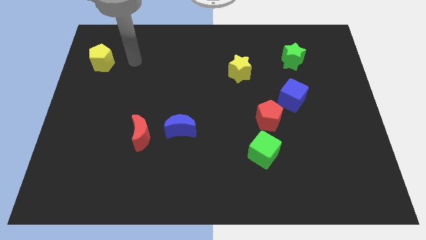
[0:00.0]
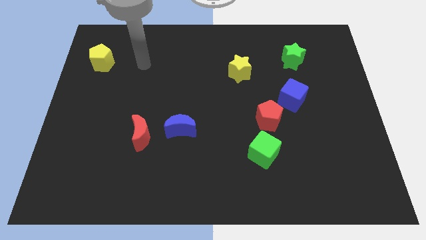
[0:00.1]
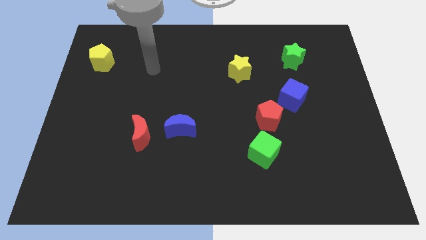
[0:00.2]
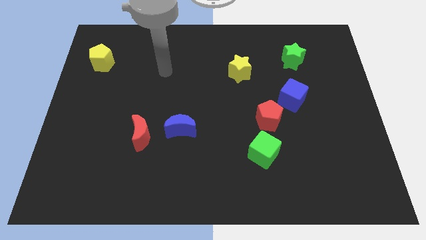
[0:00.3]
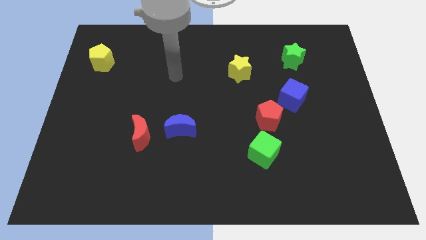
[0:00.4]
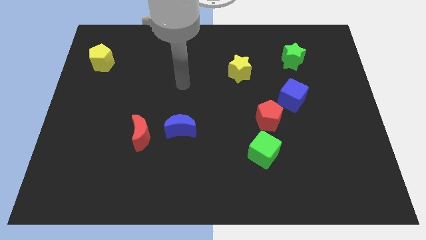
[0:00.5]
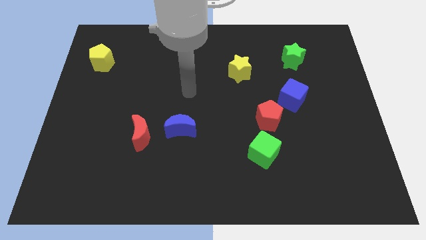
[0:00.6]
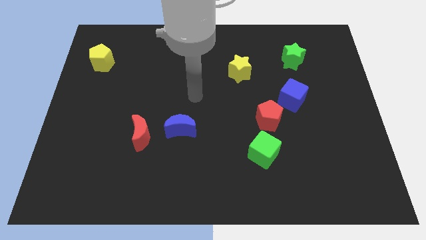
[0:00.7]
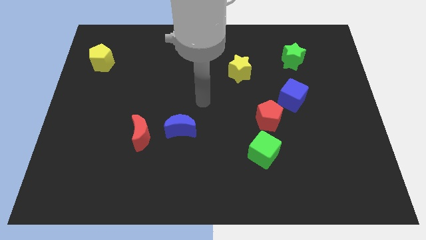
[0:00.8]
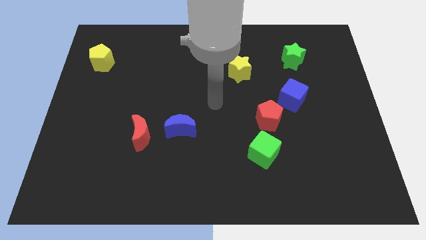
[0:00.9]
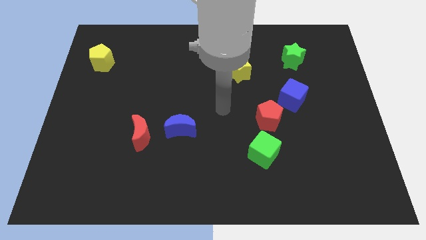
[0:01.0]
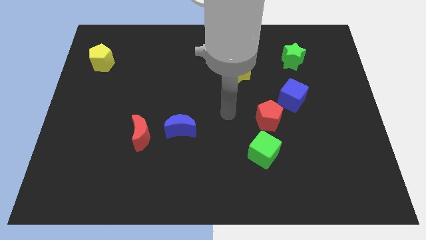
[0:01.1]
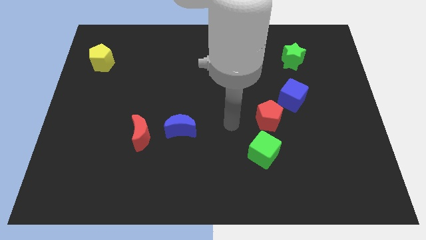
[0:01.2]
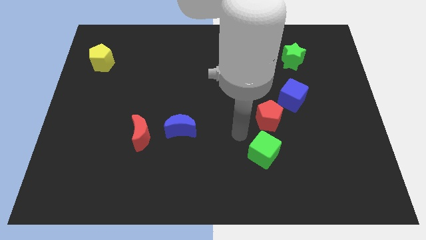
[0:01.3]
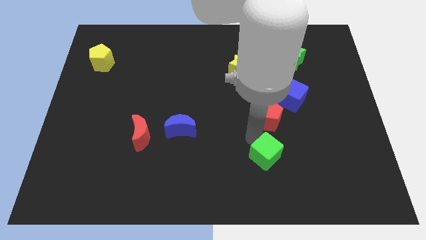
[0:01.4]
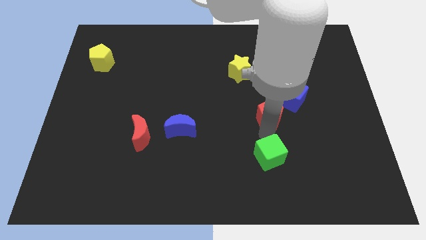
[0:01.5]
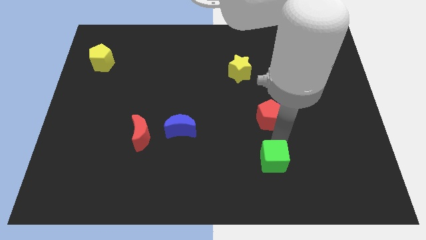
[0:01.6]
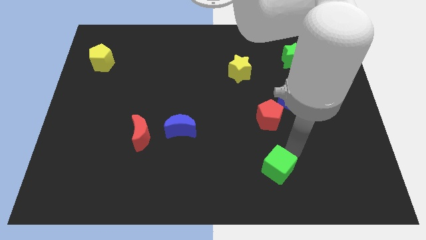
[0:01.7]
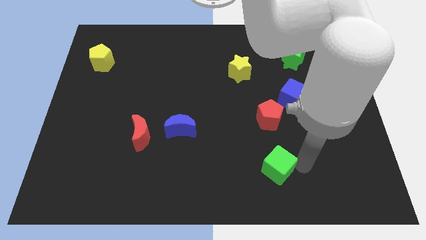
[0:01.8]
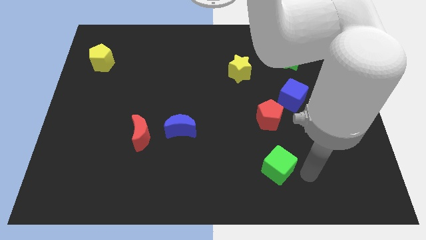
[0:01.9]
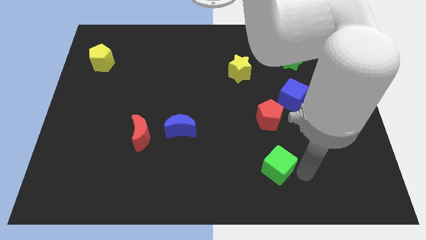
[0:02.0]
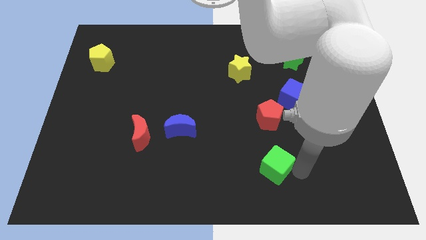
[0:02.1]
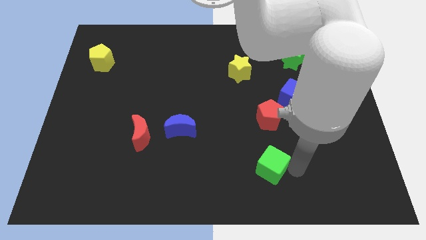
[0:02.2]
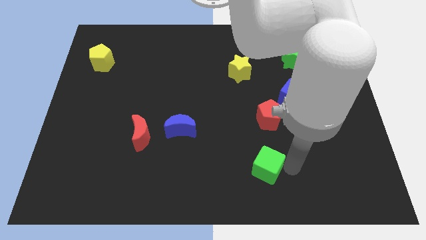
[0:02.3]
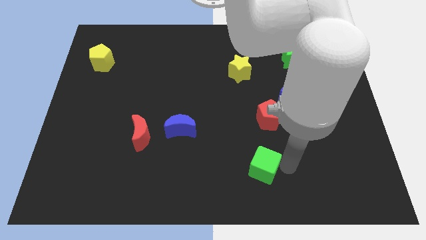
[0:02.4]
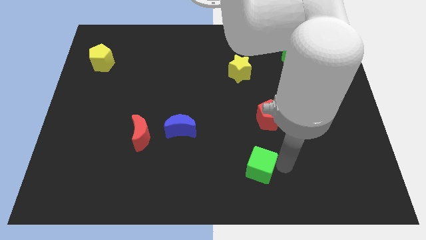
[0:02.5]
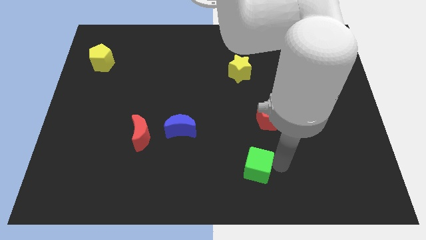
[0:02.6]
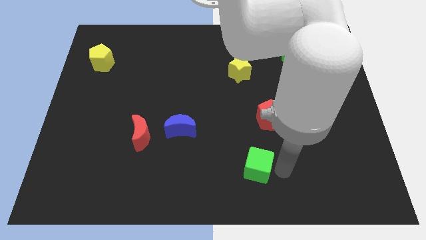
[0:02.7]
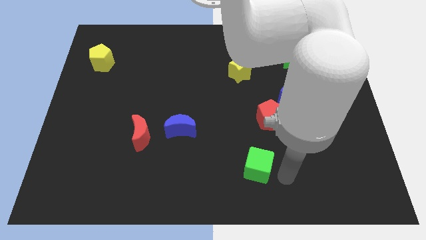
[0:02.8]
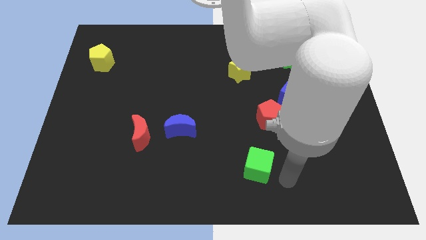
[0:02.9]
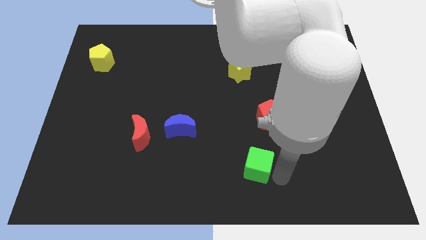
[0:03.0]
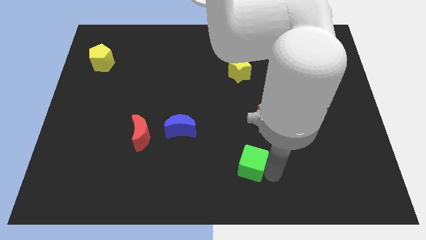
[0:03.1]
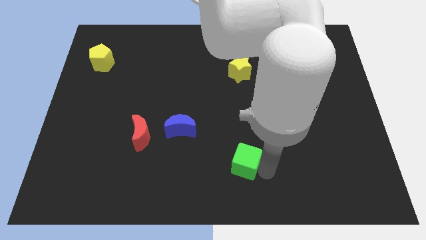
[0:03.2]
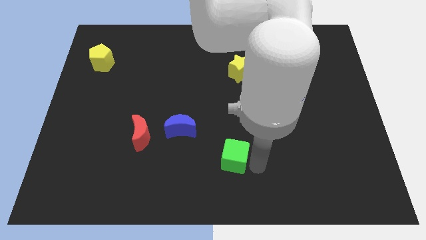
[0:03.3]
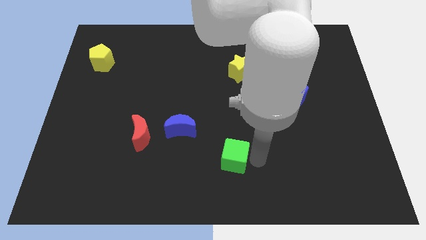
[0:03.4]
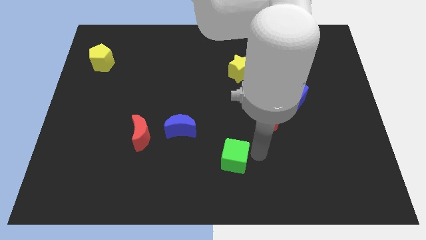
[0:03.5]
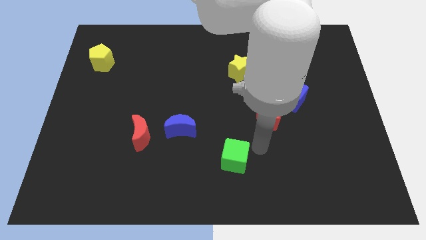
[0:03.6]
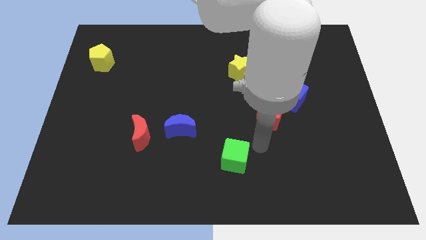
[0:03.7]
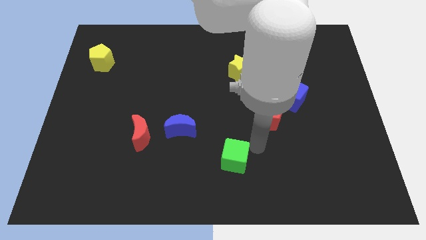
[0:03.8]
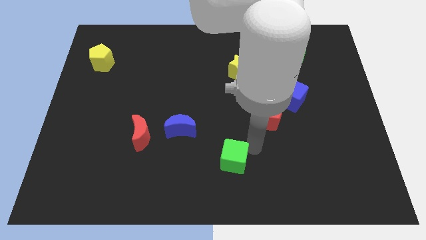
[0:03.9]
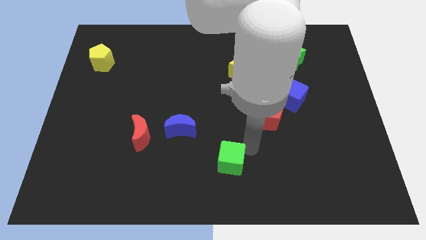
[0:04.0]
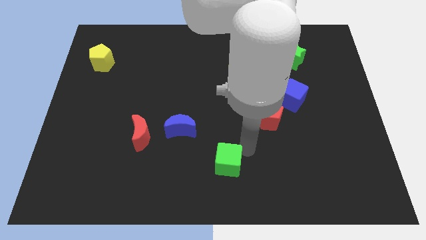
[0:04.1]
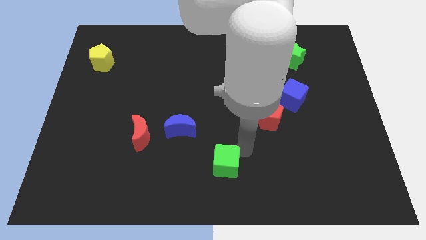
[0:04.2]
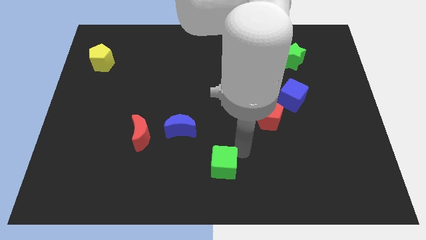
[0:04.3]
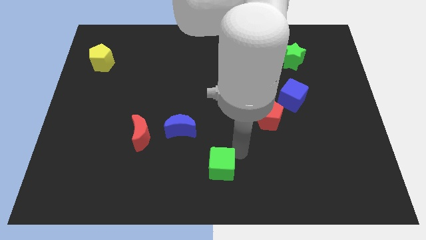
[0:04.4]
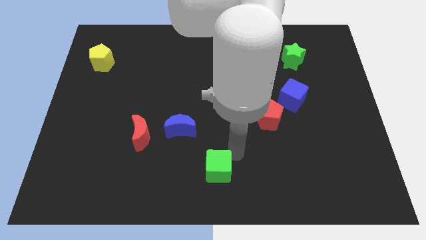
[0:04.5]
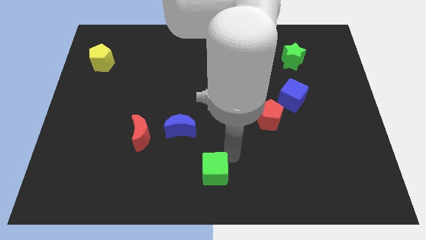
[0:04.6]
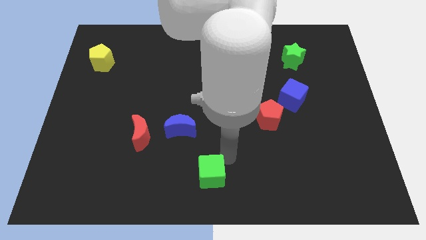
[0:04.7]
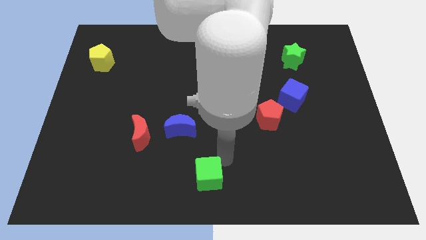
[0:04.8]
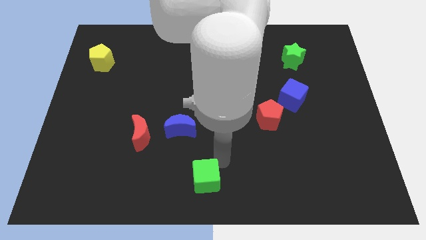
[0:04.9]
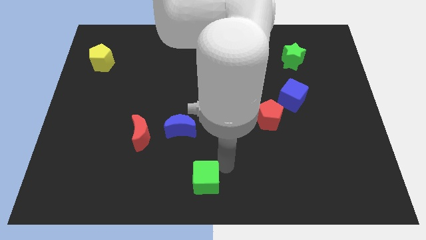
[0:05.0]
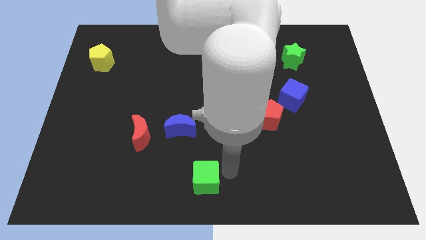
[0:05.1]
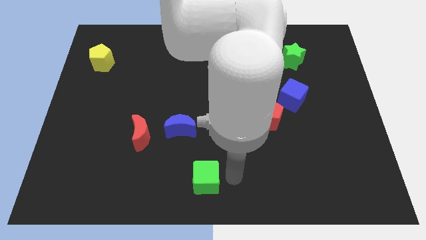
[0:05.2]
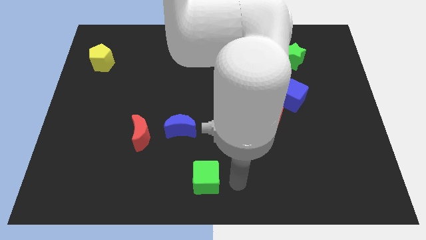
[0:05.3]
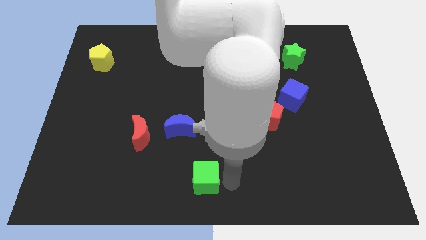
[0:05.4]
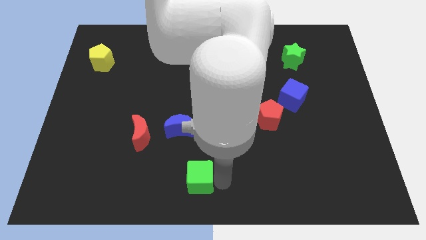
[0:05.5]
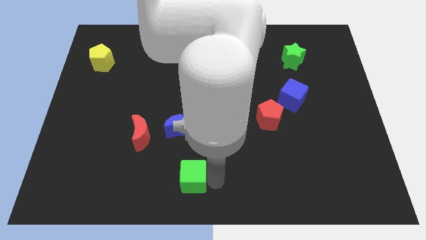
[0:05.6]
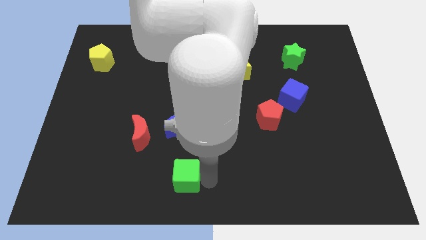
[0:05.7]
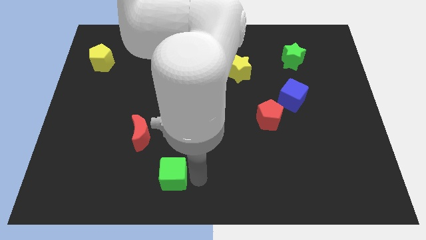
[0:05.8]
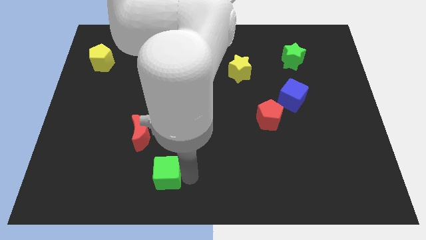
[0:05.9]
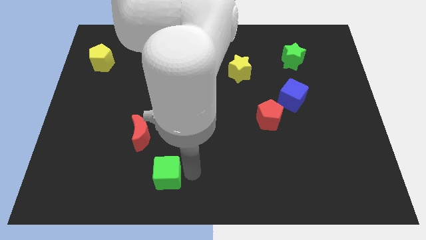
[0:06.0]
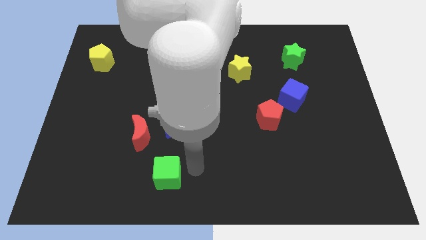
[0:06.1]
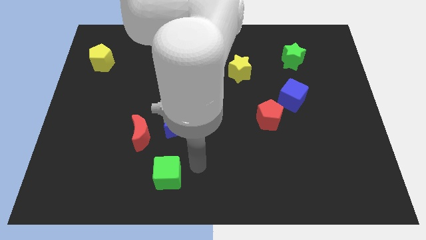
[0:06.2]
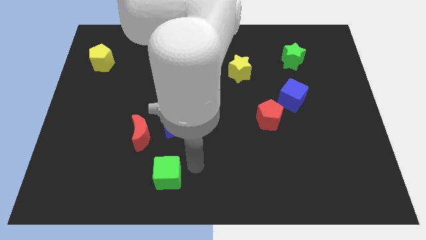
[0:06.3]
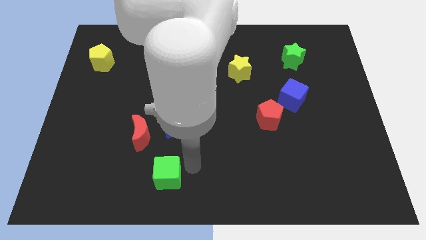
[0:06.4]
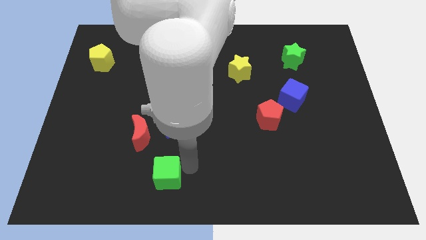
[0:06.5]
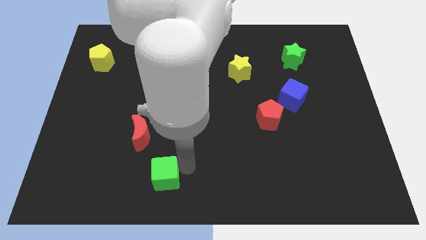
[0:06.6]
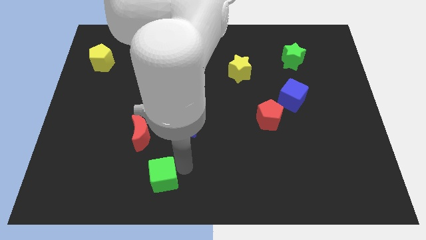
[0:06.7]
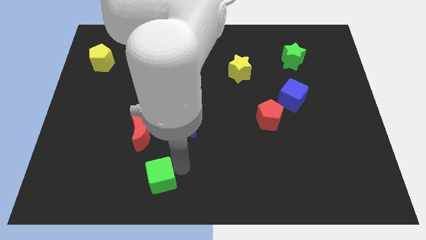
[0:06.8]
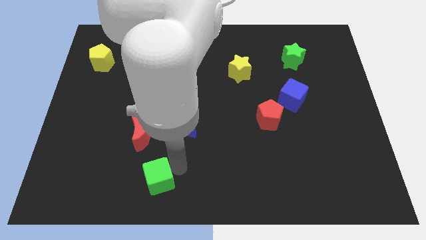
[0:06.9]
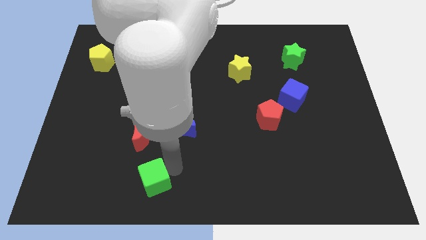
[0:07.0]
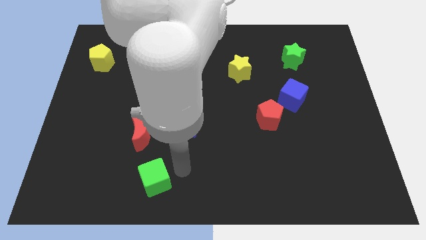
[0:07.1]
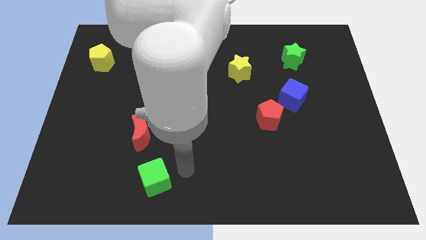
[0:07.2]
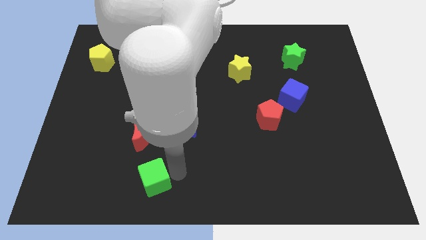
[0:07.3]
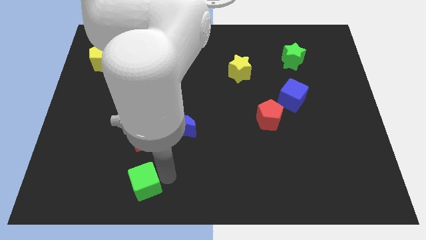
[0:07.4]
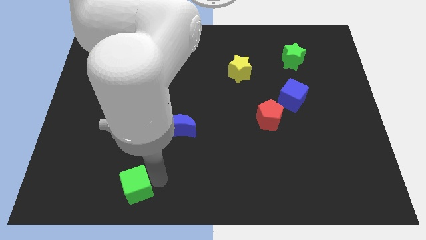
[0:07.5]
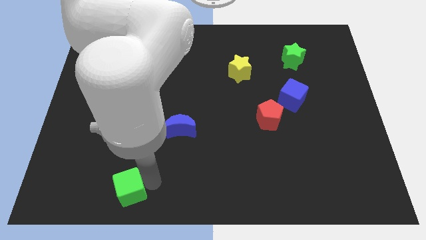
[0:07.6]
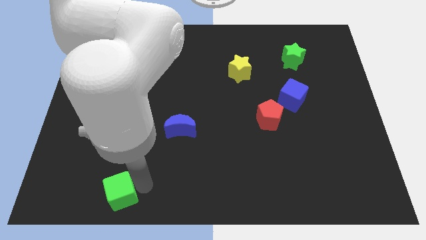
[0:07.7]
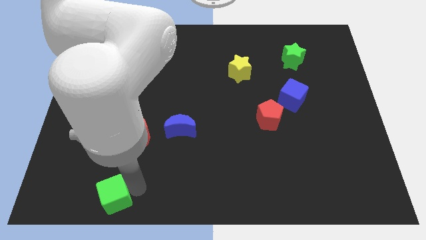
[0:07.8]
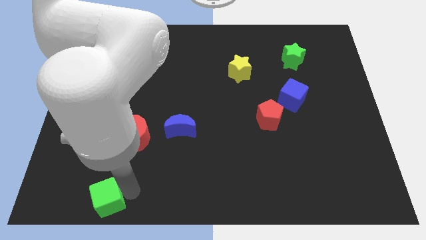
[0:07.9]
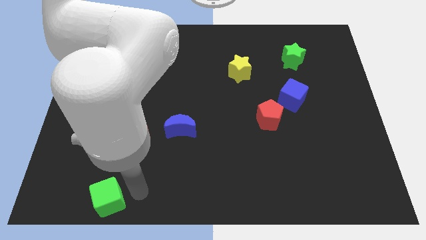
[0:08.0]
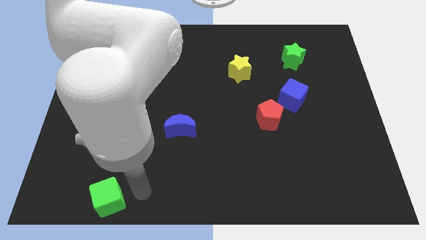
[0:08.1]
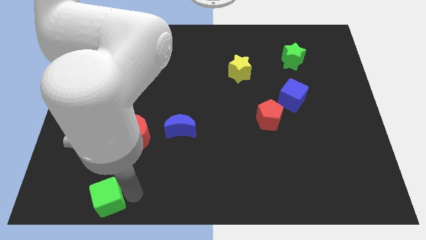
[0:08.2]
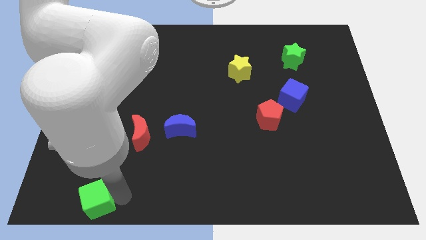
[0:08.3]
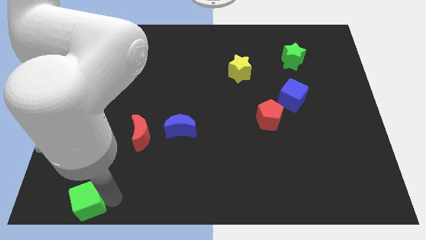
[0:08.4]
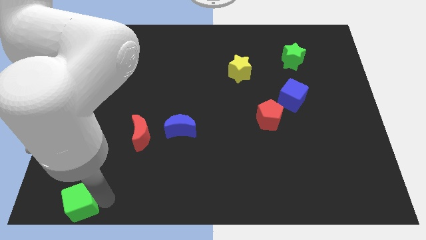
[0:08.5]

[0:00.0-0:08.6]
slide the green cube to the bottom left corner
